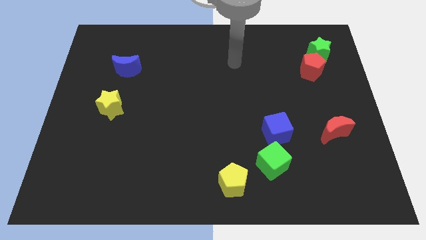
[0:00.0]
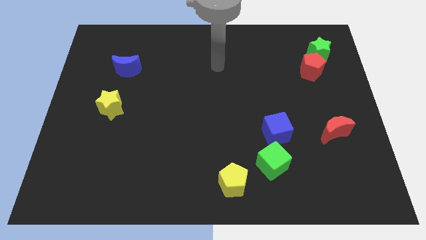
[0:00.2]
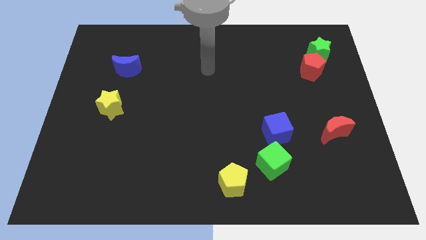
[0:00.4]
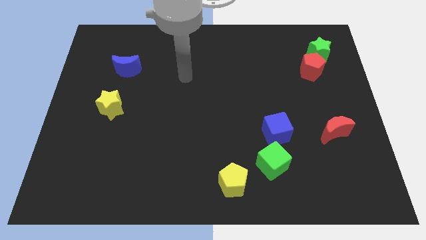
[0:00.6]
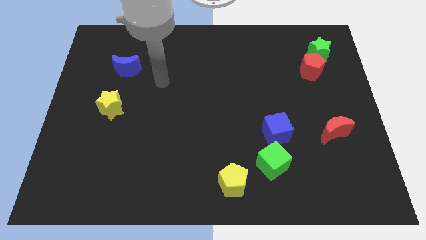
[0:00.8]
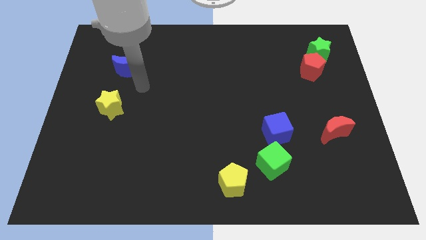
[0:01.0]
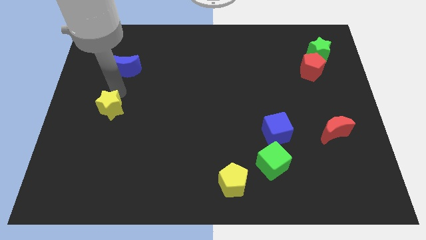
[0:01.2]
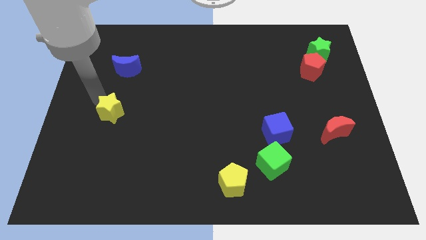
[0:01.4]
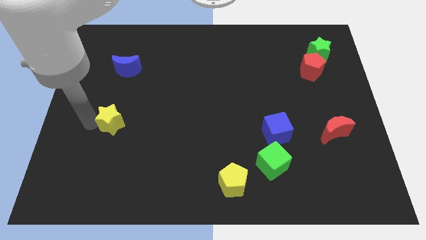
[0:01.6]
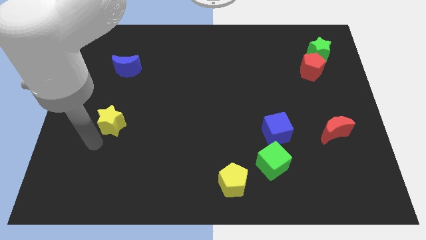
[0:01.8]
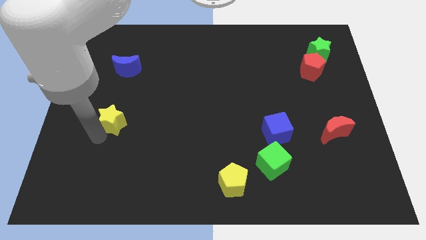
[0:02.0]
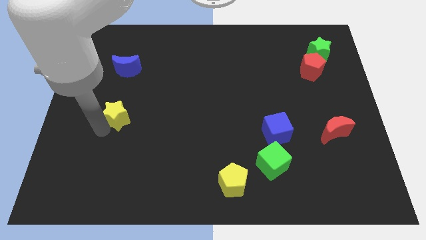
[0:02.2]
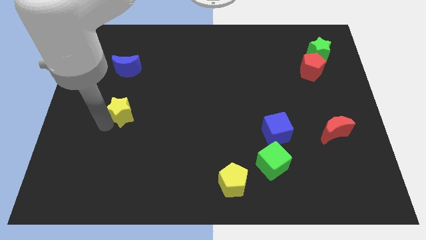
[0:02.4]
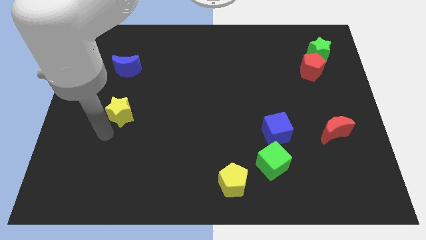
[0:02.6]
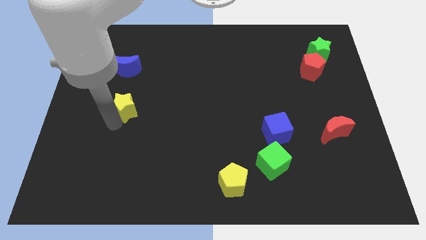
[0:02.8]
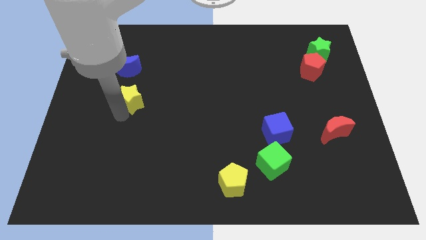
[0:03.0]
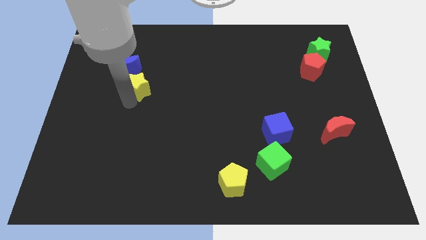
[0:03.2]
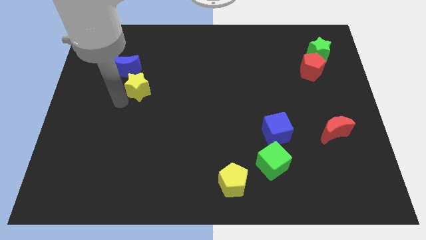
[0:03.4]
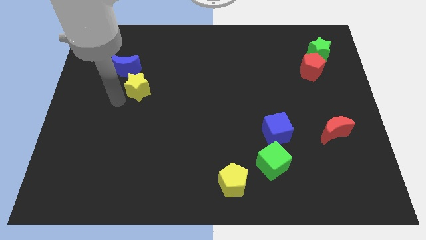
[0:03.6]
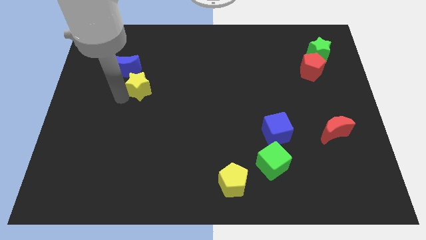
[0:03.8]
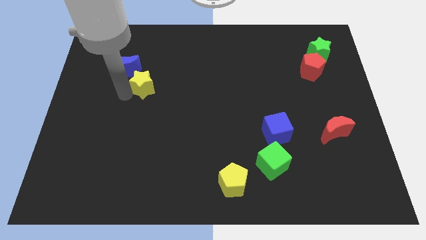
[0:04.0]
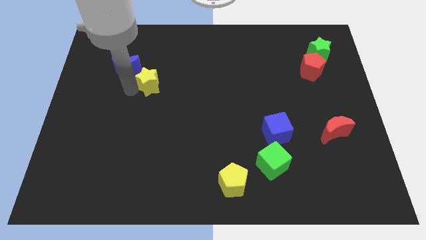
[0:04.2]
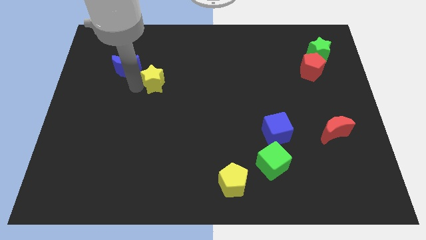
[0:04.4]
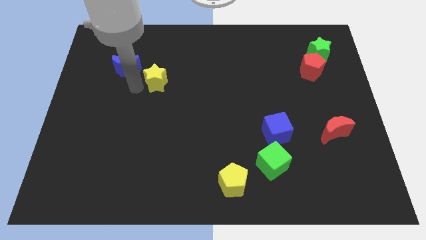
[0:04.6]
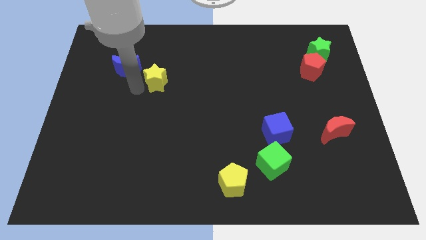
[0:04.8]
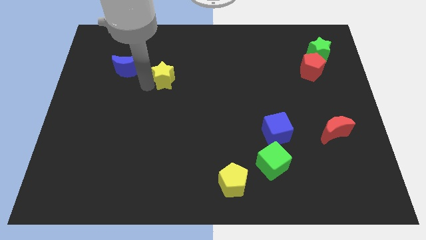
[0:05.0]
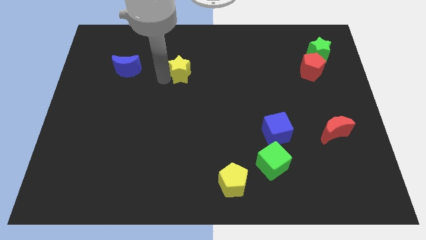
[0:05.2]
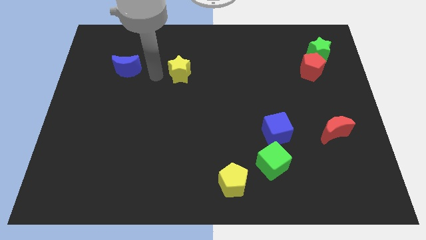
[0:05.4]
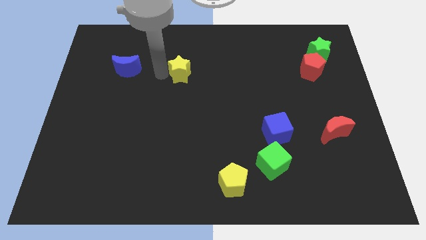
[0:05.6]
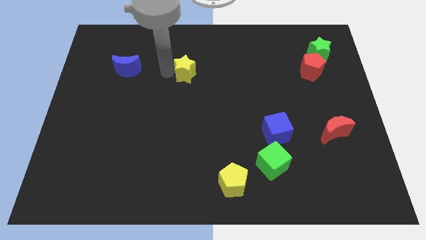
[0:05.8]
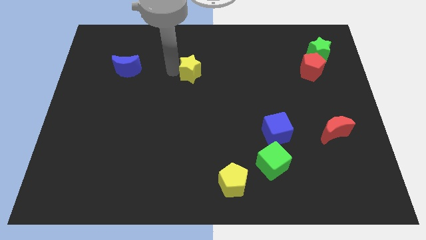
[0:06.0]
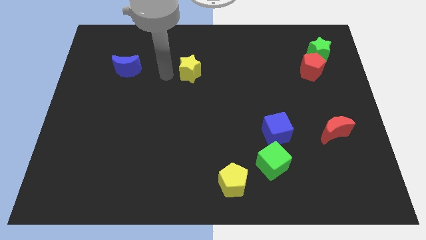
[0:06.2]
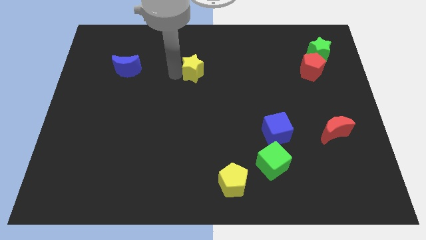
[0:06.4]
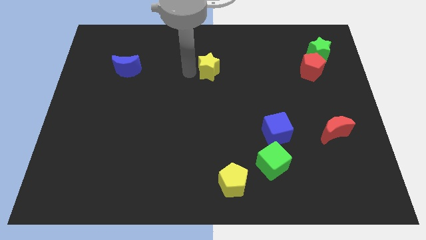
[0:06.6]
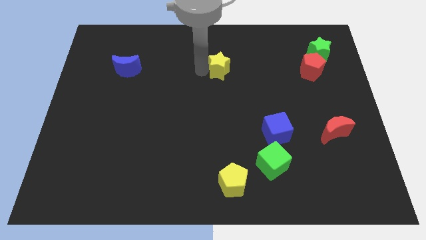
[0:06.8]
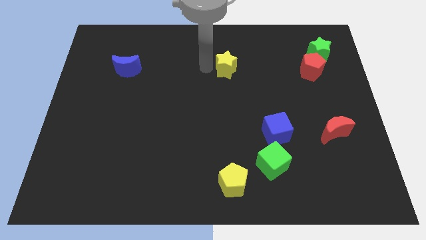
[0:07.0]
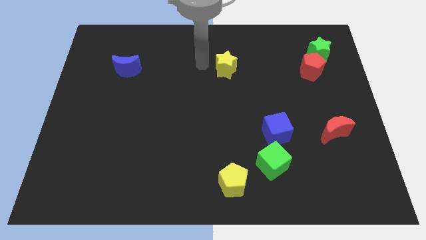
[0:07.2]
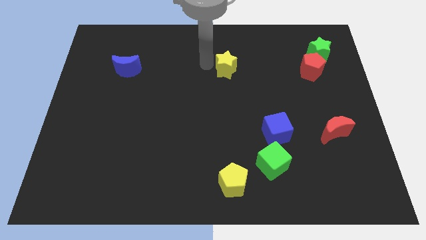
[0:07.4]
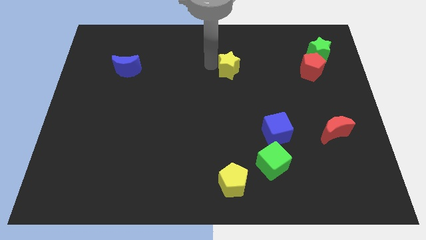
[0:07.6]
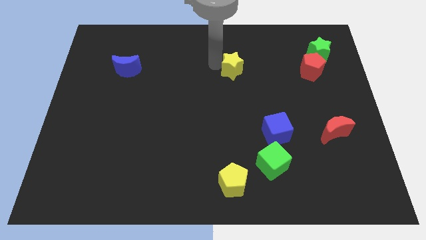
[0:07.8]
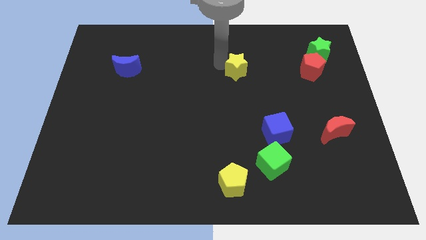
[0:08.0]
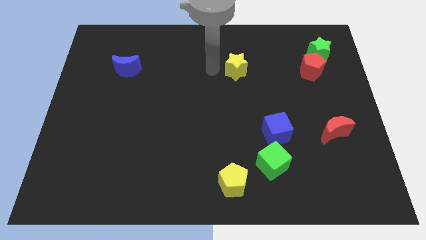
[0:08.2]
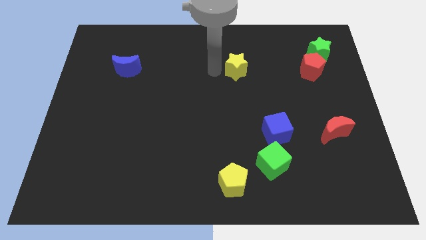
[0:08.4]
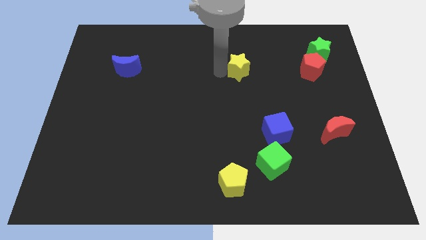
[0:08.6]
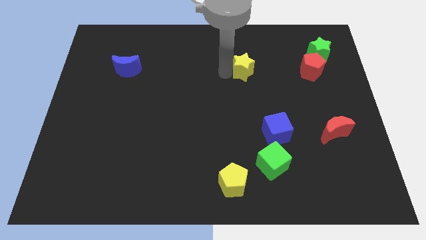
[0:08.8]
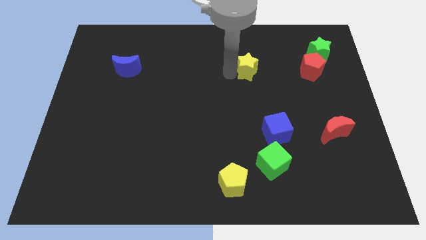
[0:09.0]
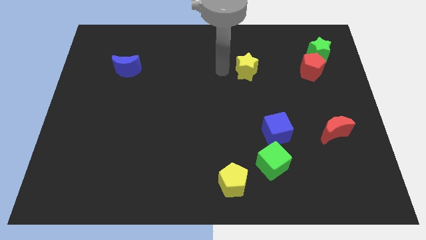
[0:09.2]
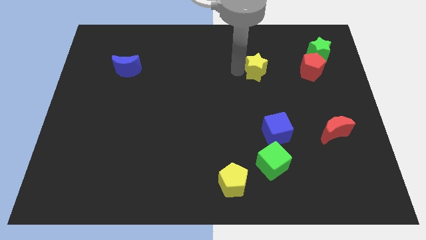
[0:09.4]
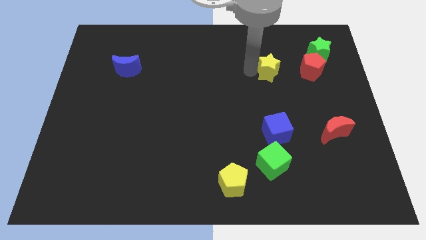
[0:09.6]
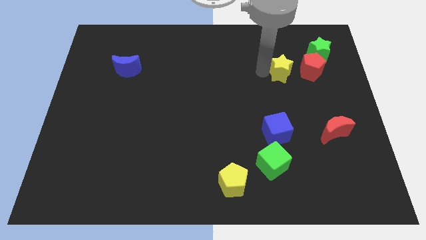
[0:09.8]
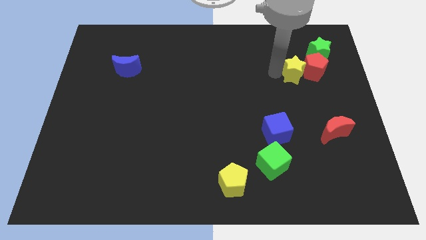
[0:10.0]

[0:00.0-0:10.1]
put the yellow star towards the red pentagon

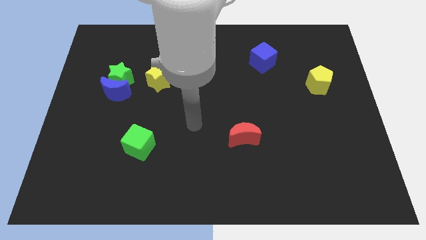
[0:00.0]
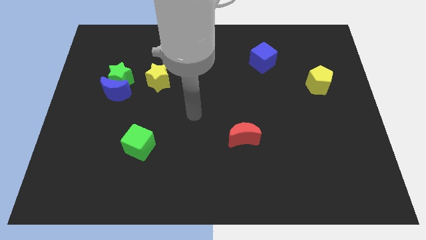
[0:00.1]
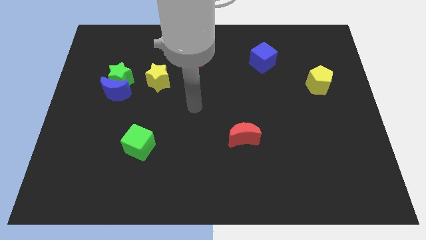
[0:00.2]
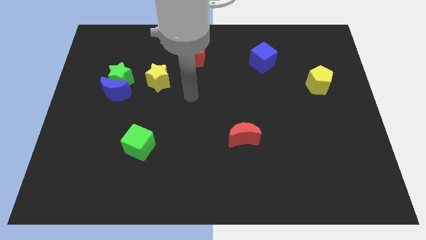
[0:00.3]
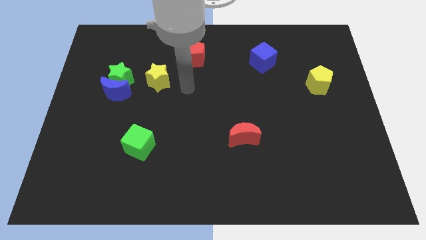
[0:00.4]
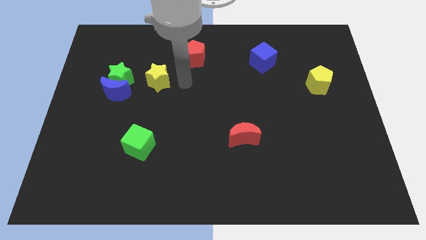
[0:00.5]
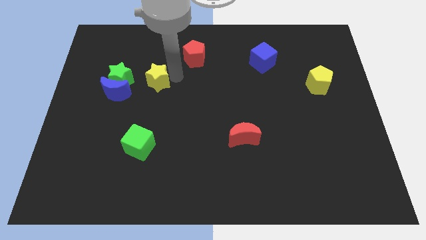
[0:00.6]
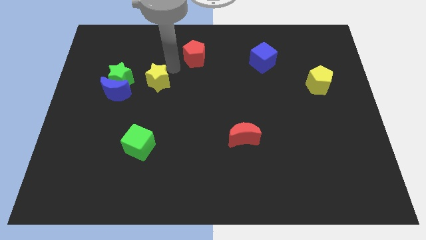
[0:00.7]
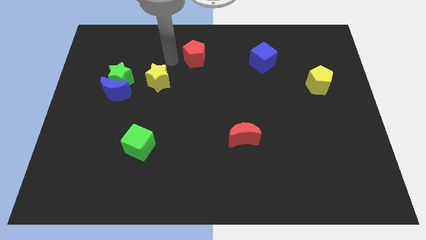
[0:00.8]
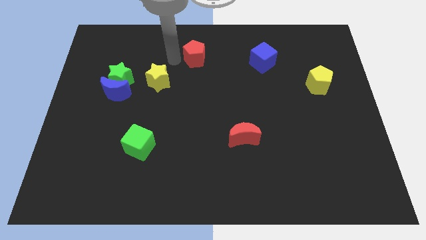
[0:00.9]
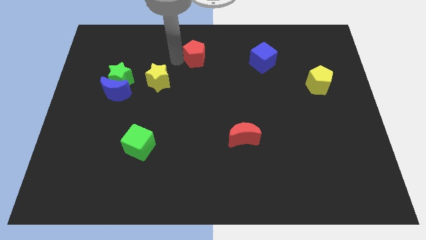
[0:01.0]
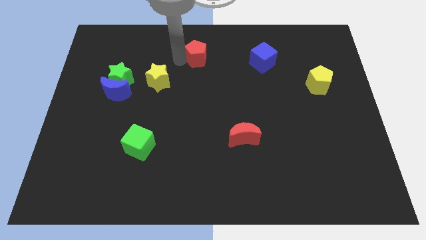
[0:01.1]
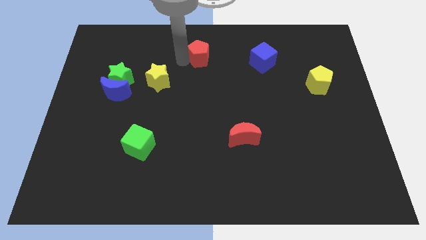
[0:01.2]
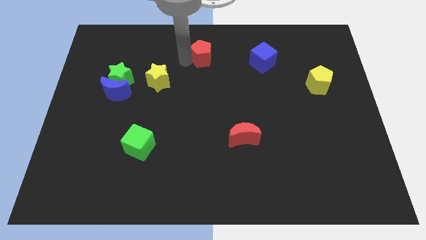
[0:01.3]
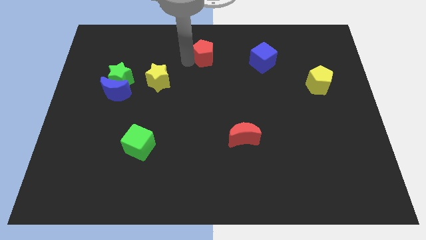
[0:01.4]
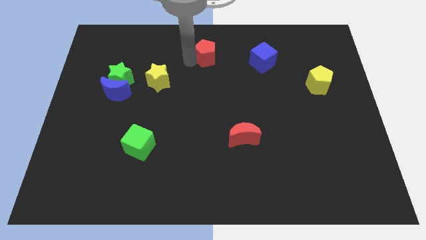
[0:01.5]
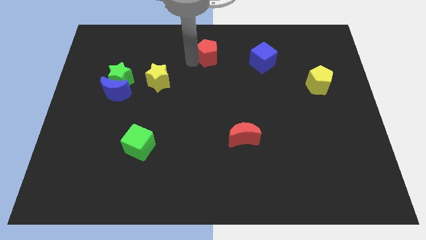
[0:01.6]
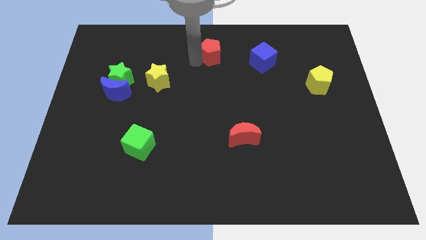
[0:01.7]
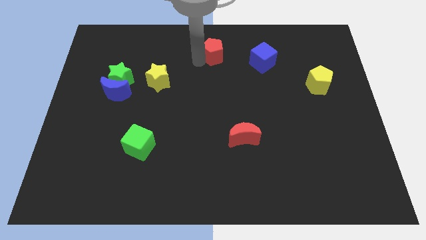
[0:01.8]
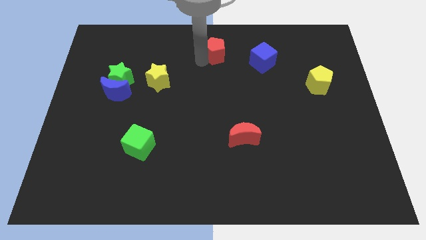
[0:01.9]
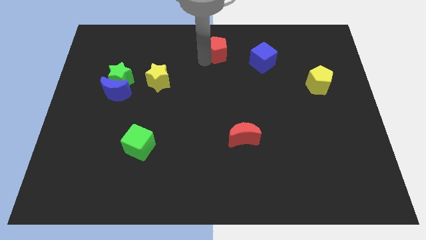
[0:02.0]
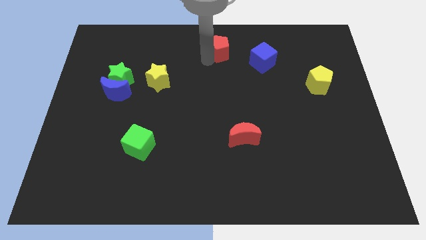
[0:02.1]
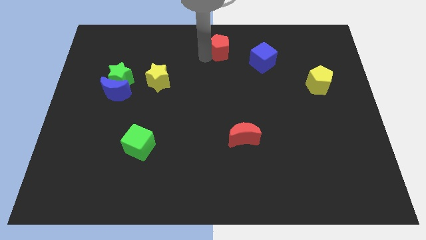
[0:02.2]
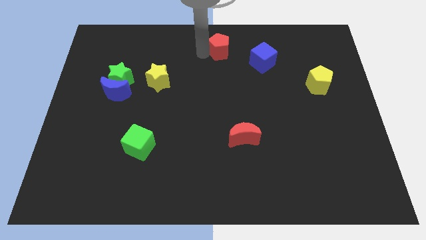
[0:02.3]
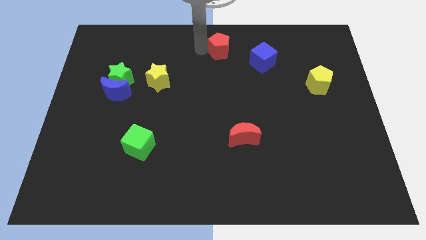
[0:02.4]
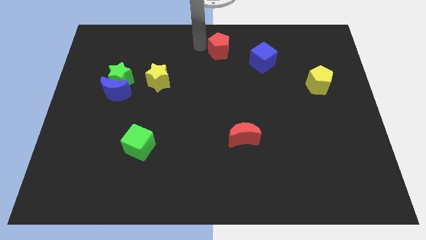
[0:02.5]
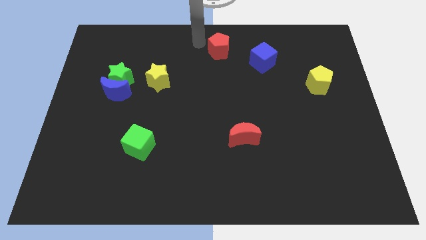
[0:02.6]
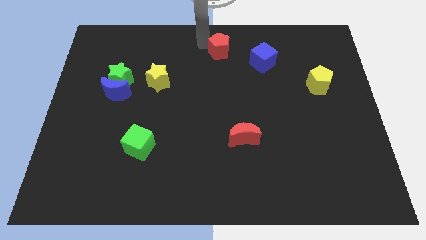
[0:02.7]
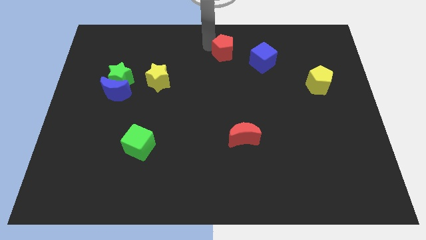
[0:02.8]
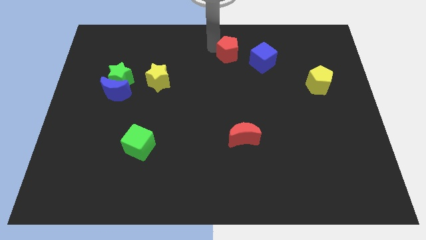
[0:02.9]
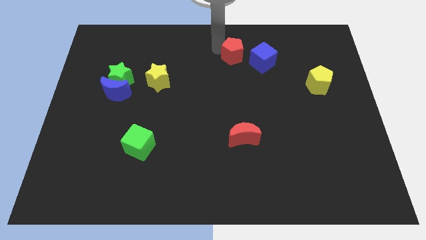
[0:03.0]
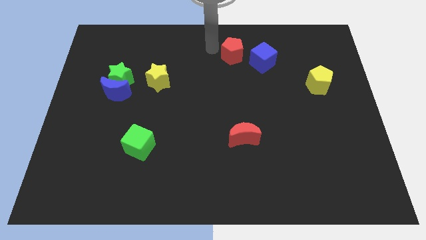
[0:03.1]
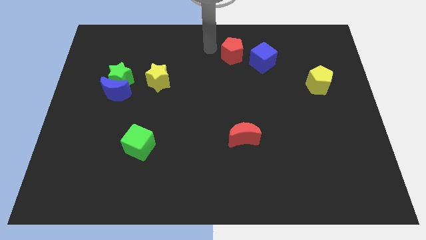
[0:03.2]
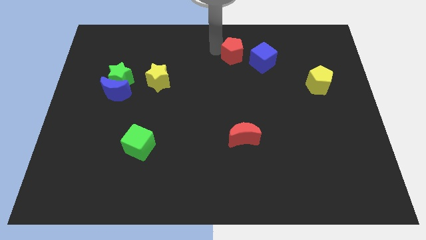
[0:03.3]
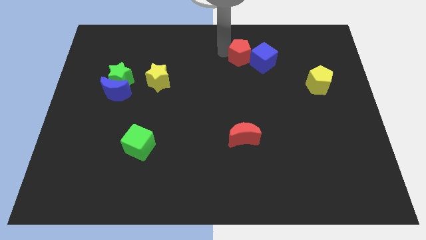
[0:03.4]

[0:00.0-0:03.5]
push the red pentagon next to the blue cube
